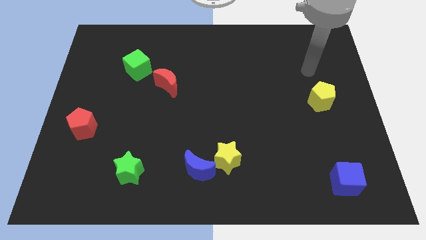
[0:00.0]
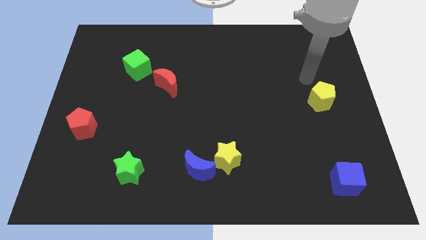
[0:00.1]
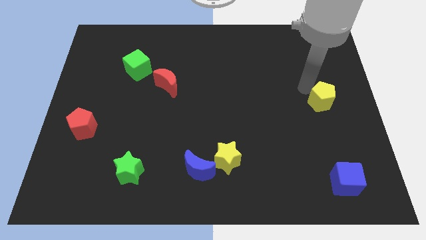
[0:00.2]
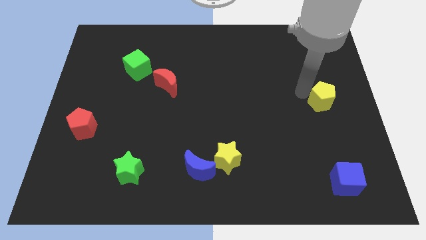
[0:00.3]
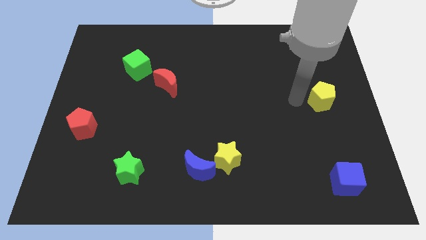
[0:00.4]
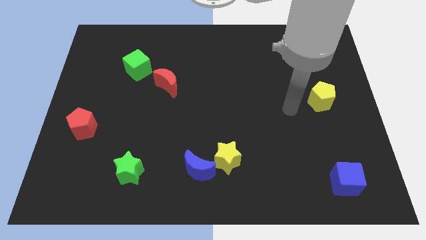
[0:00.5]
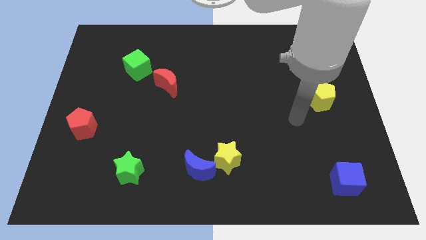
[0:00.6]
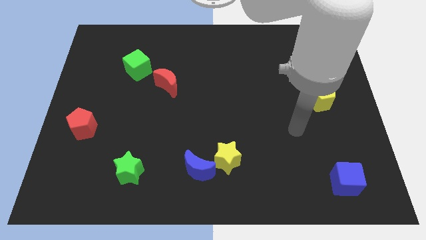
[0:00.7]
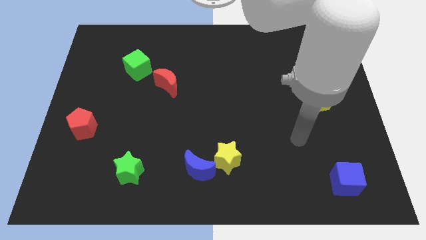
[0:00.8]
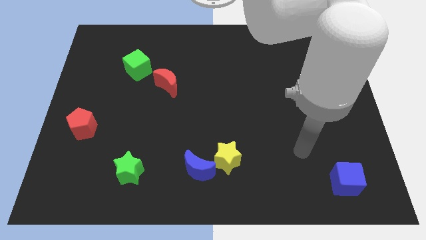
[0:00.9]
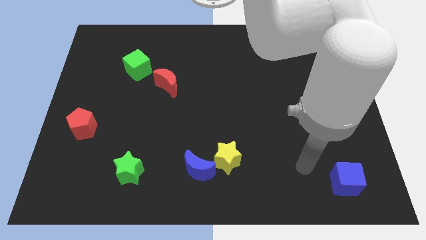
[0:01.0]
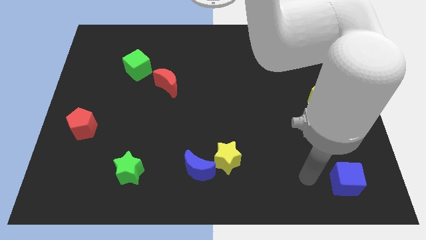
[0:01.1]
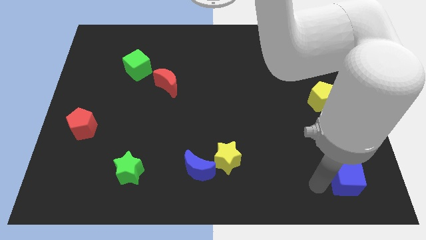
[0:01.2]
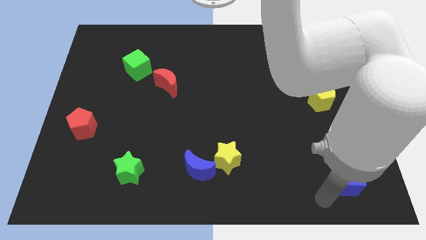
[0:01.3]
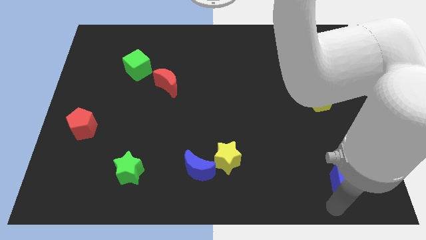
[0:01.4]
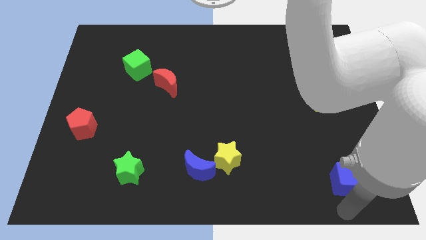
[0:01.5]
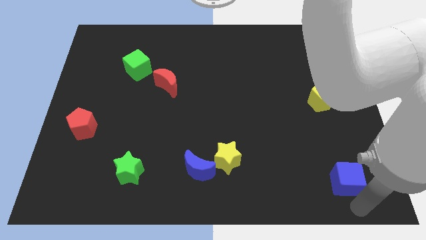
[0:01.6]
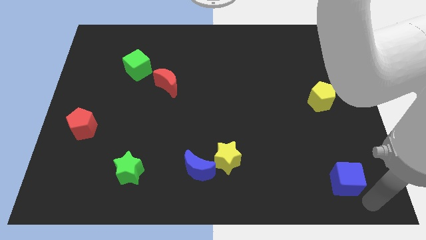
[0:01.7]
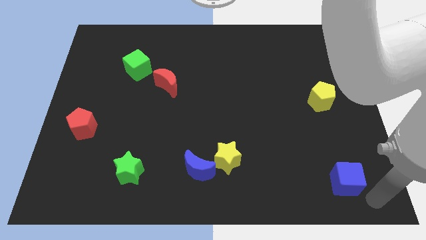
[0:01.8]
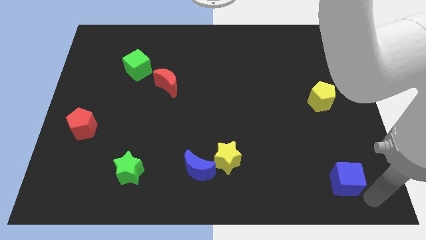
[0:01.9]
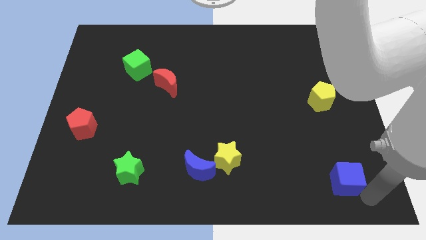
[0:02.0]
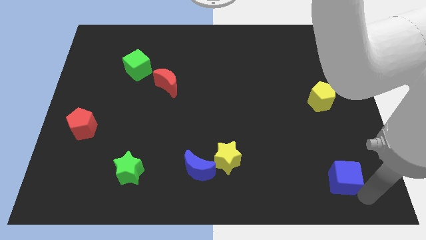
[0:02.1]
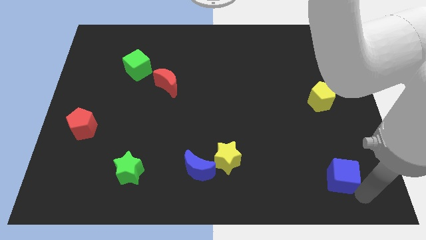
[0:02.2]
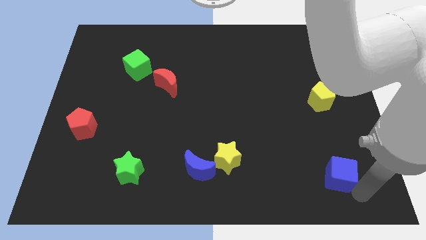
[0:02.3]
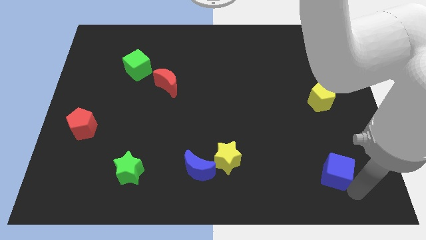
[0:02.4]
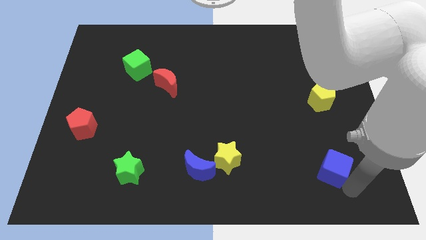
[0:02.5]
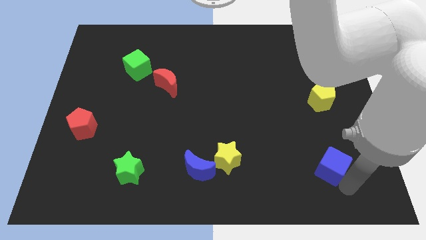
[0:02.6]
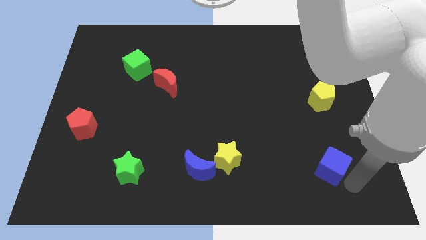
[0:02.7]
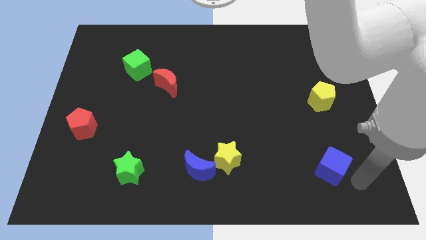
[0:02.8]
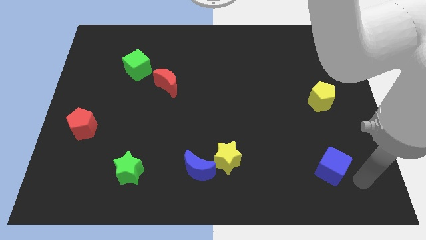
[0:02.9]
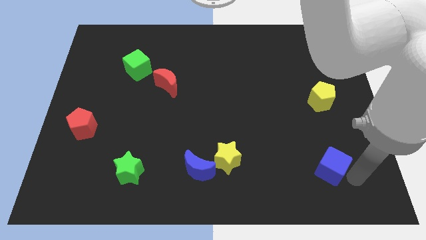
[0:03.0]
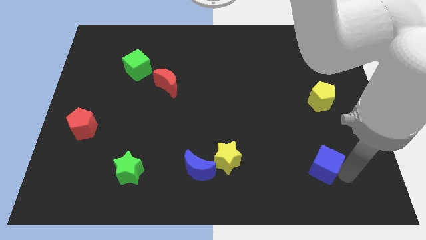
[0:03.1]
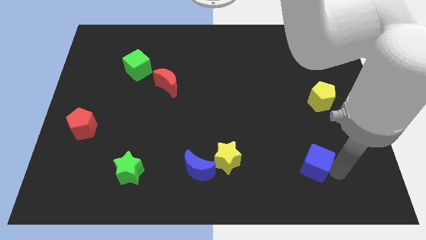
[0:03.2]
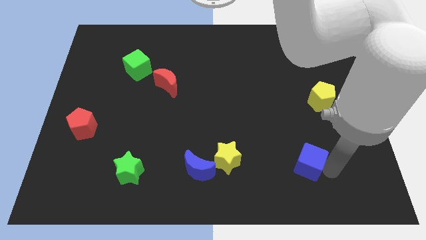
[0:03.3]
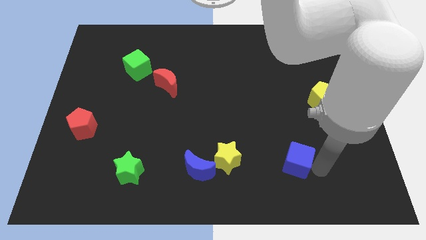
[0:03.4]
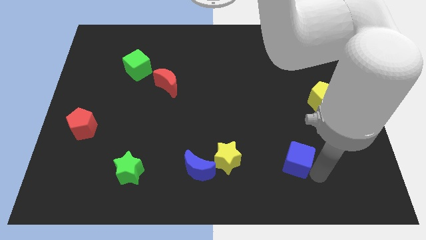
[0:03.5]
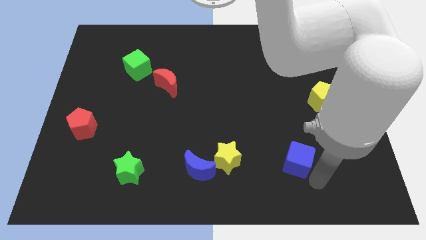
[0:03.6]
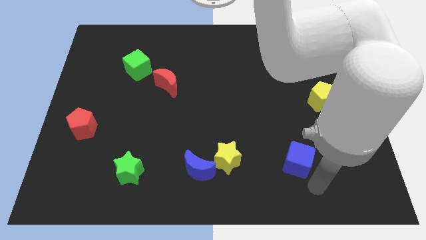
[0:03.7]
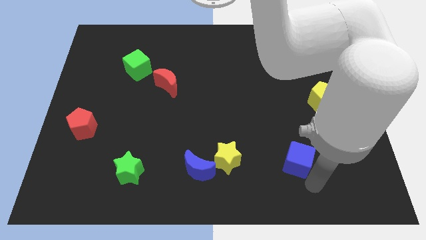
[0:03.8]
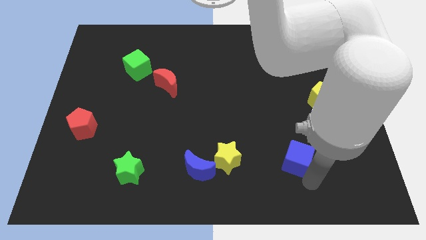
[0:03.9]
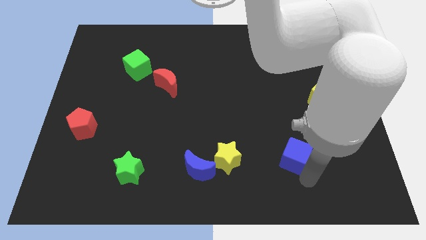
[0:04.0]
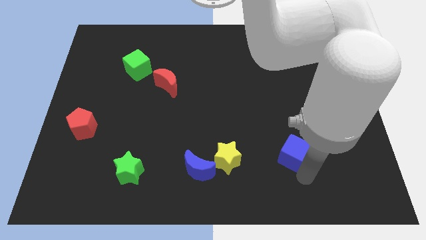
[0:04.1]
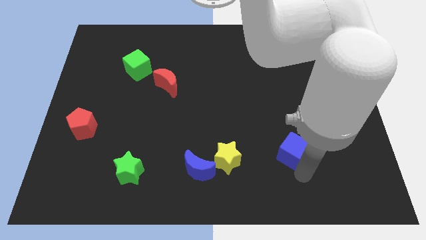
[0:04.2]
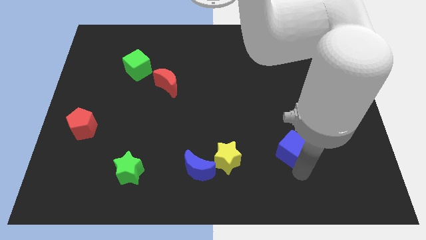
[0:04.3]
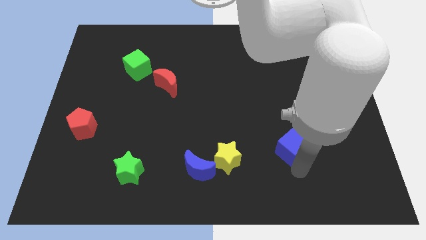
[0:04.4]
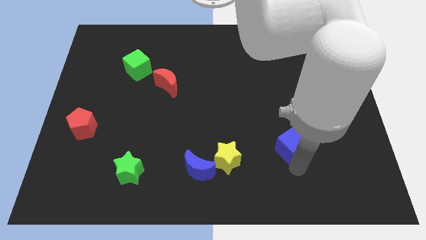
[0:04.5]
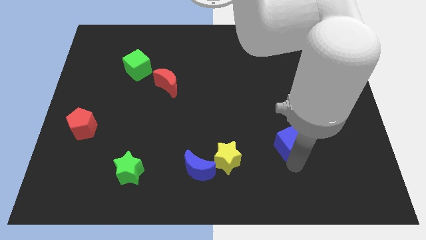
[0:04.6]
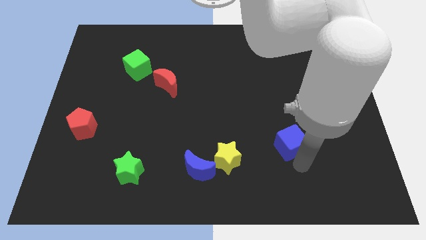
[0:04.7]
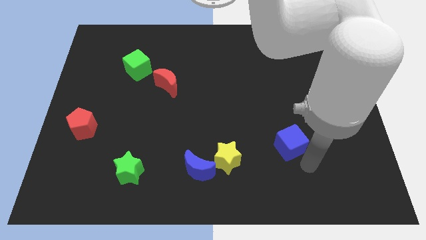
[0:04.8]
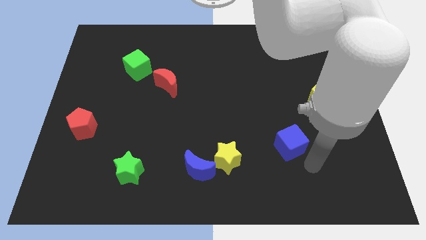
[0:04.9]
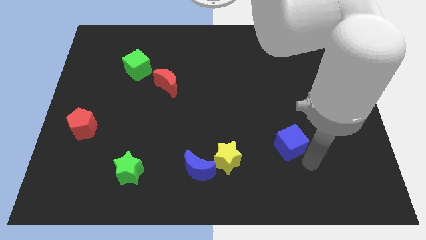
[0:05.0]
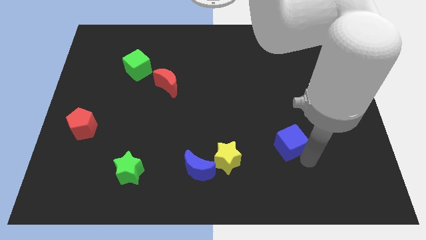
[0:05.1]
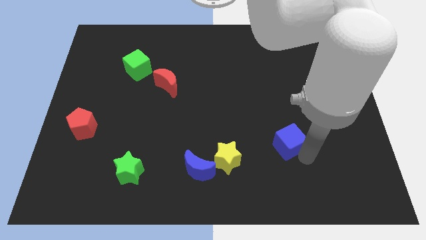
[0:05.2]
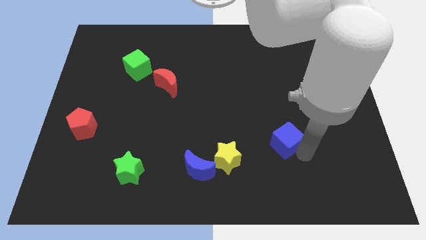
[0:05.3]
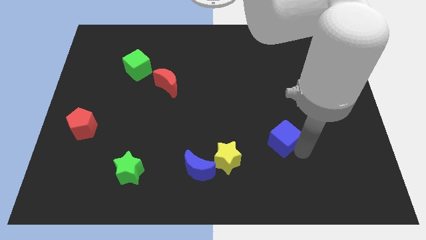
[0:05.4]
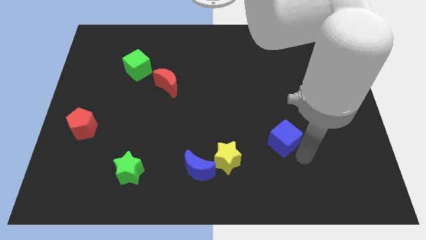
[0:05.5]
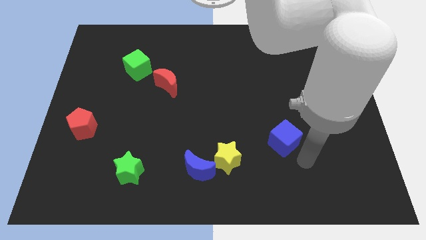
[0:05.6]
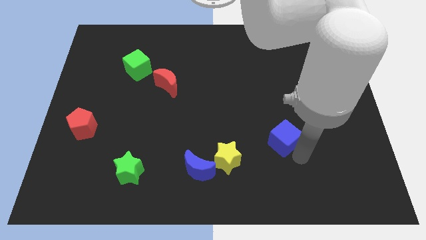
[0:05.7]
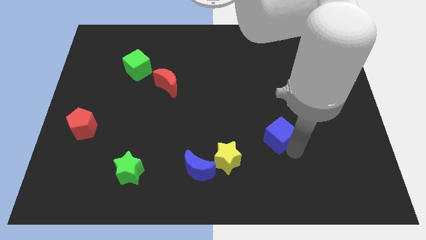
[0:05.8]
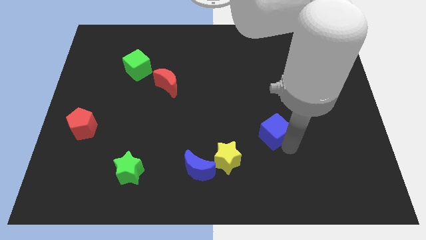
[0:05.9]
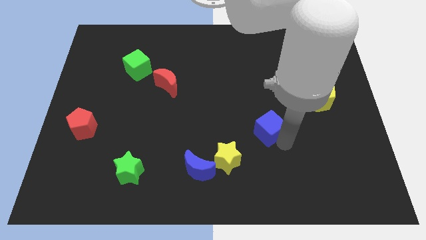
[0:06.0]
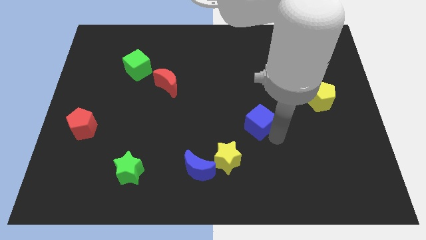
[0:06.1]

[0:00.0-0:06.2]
push the blue cube upwards and to the left diagonally

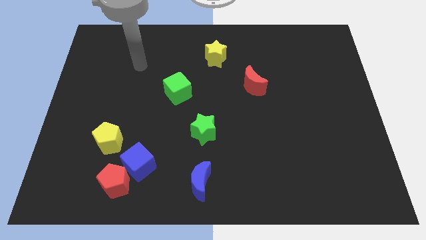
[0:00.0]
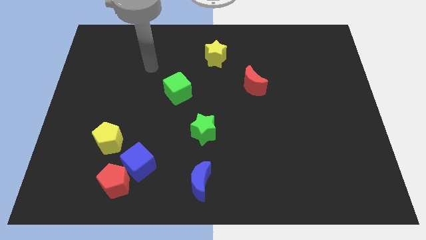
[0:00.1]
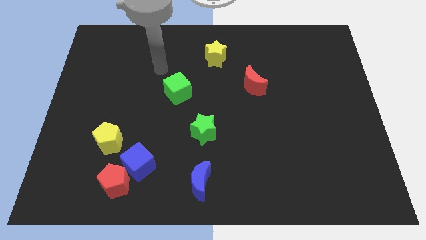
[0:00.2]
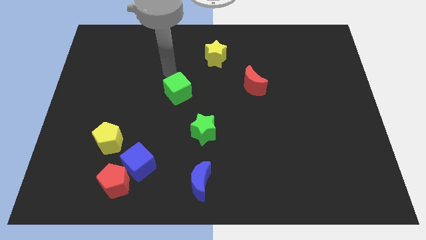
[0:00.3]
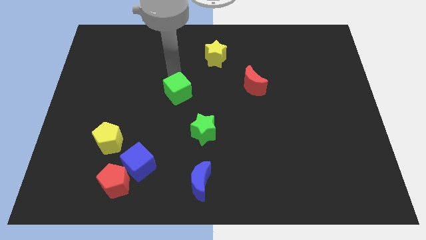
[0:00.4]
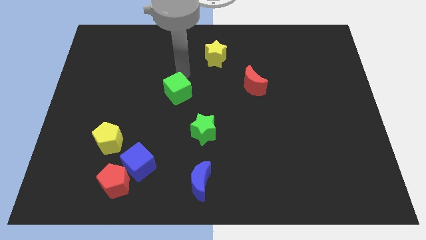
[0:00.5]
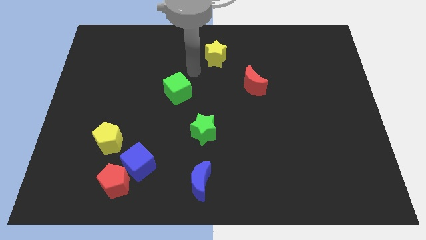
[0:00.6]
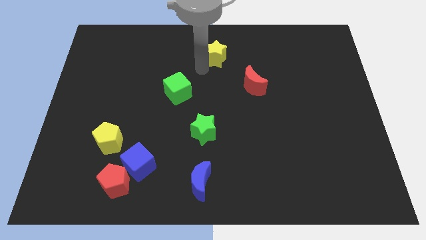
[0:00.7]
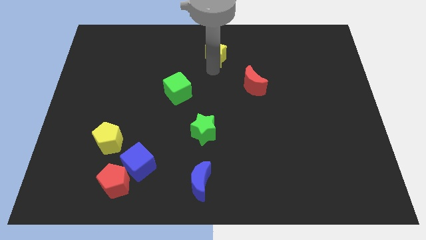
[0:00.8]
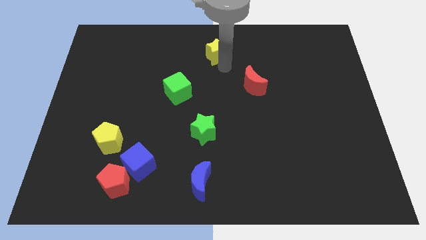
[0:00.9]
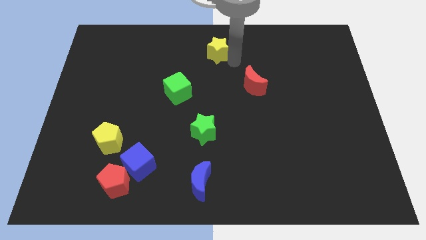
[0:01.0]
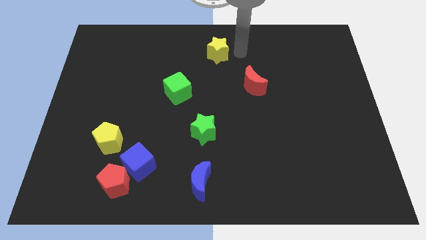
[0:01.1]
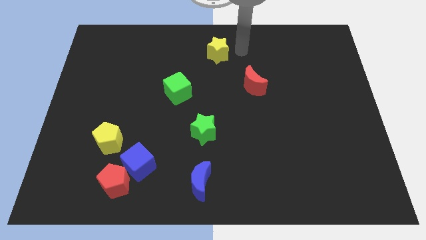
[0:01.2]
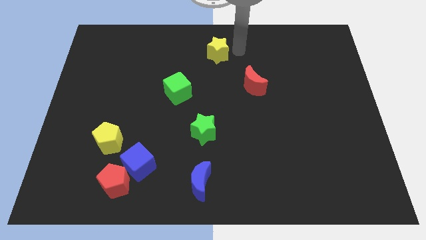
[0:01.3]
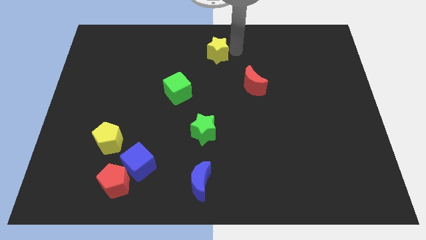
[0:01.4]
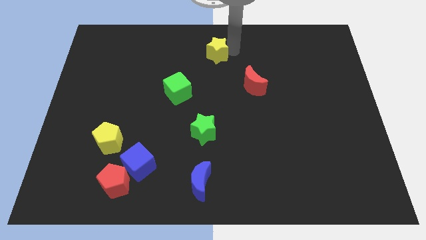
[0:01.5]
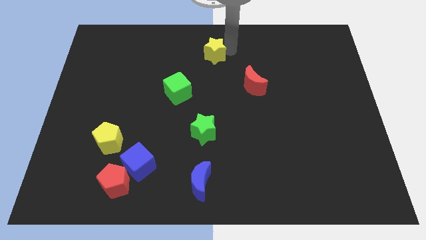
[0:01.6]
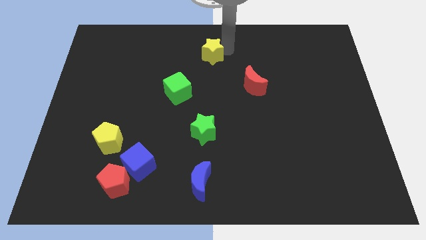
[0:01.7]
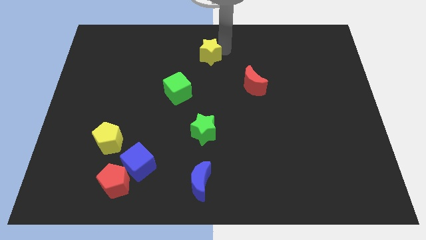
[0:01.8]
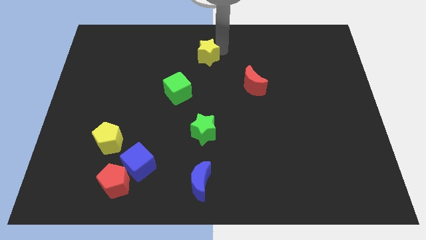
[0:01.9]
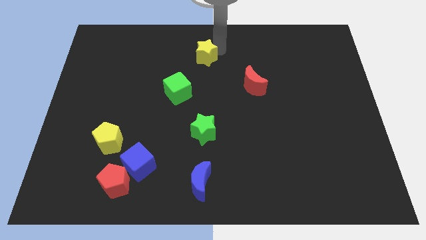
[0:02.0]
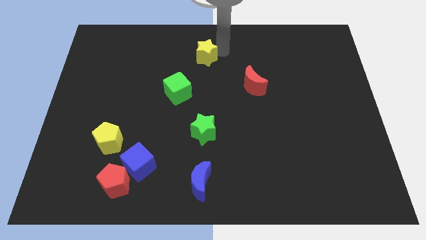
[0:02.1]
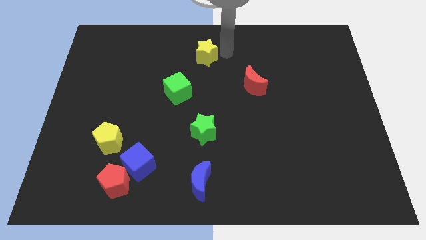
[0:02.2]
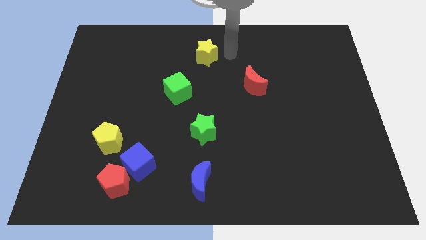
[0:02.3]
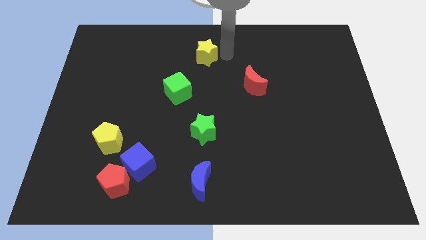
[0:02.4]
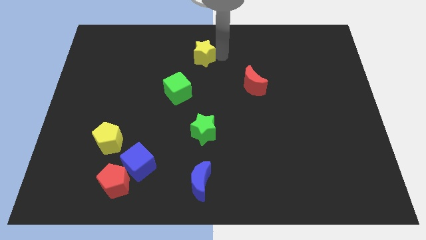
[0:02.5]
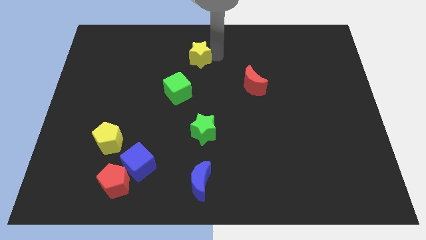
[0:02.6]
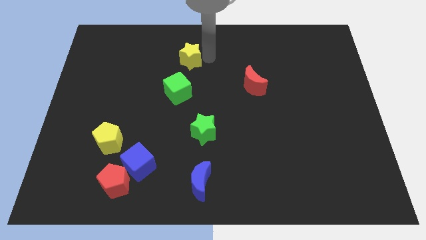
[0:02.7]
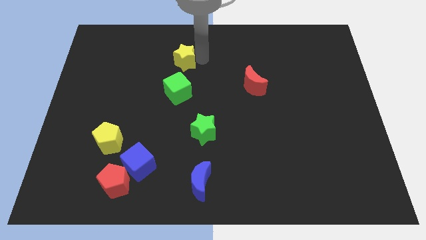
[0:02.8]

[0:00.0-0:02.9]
push the yellow star left a little bit
